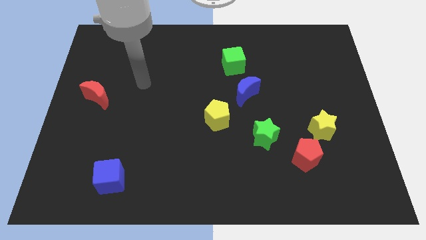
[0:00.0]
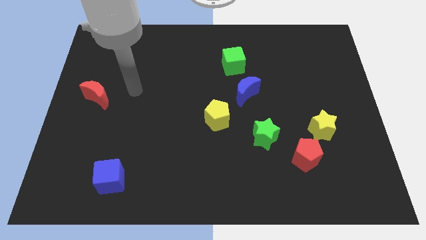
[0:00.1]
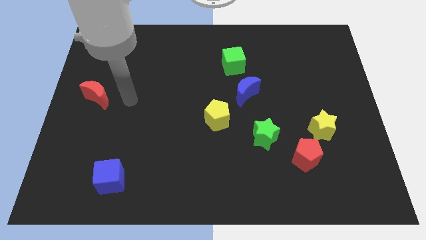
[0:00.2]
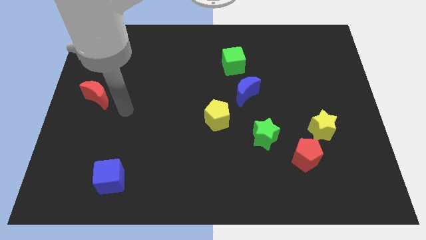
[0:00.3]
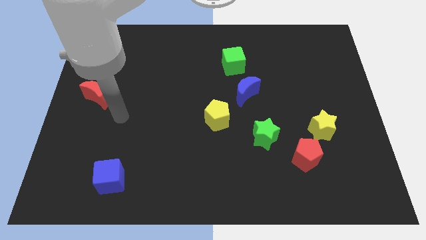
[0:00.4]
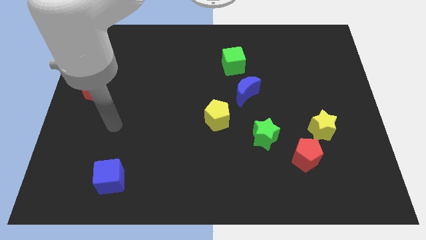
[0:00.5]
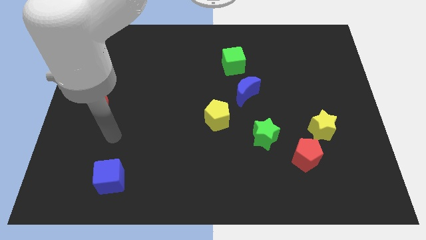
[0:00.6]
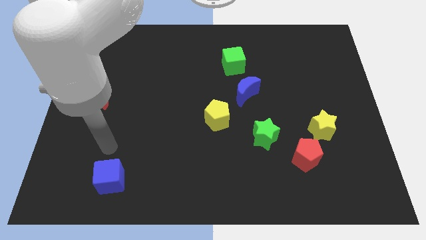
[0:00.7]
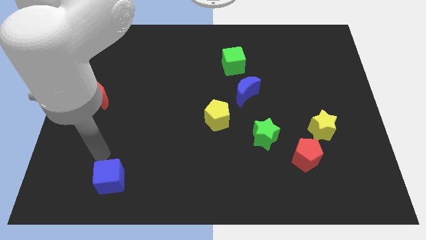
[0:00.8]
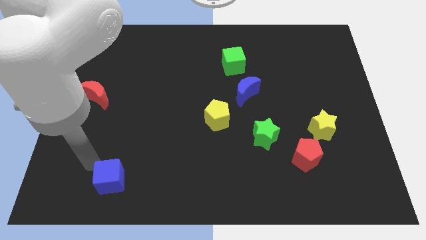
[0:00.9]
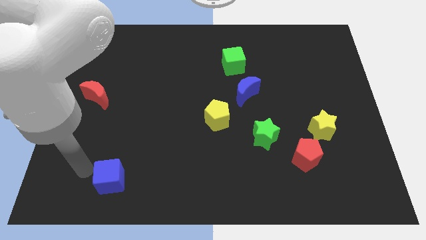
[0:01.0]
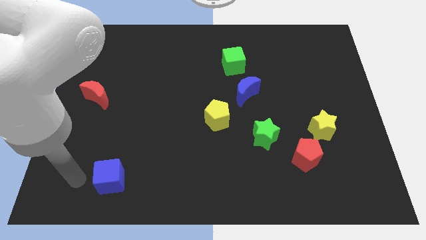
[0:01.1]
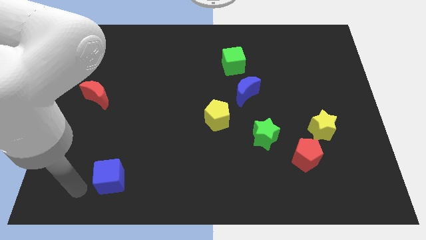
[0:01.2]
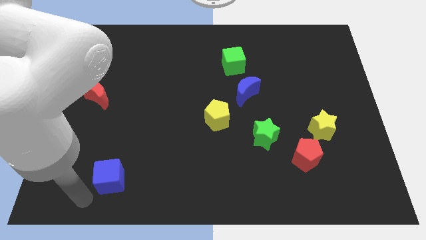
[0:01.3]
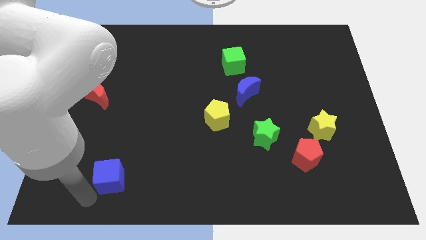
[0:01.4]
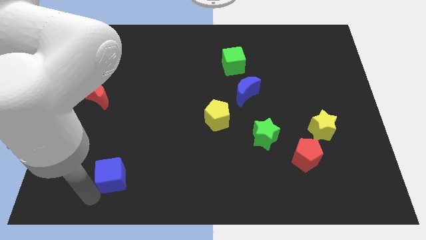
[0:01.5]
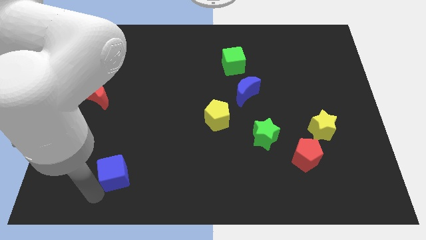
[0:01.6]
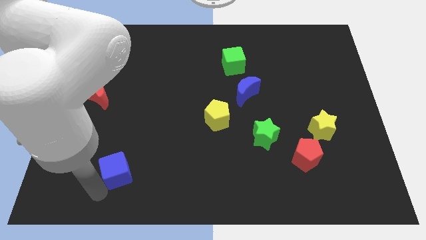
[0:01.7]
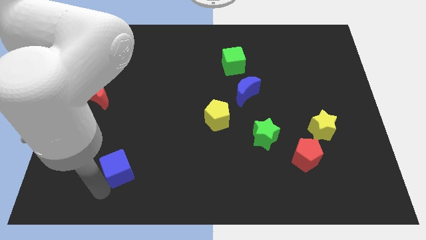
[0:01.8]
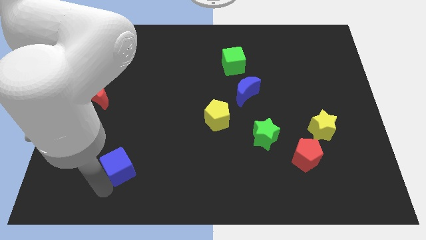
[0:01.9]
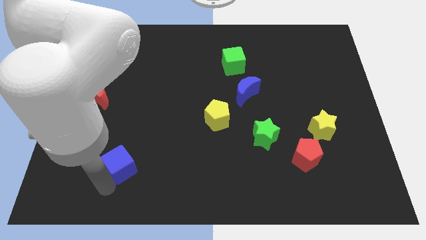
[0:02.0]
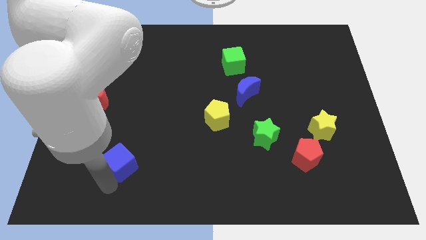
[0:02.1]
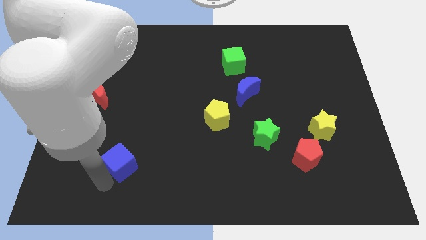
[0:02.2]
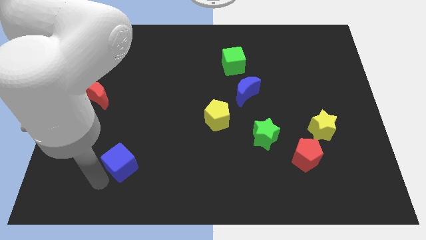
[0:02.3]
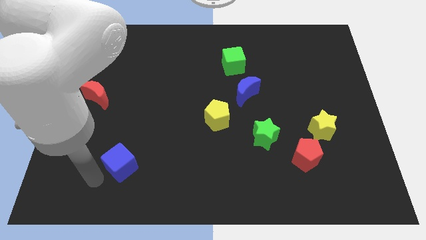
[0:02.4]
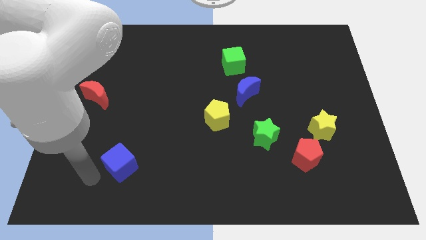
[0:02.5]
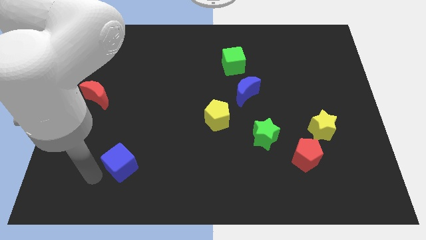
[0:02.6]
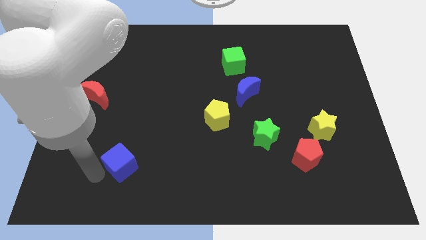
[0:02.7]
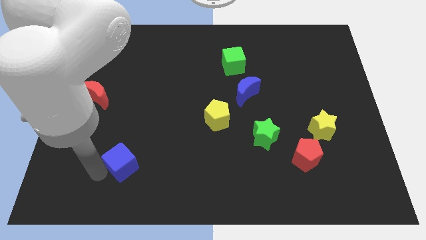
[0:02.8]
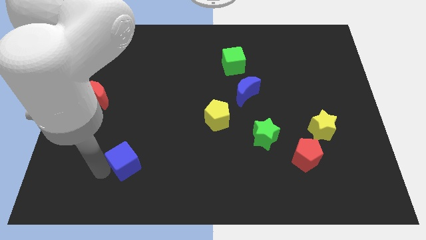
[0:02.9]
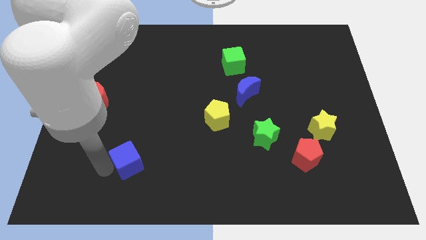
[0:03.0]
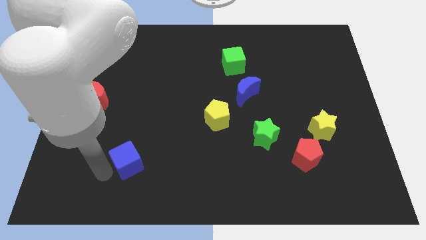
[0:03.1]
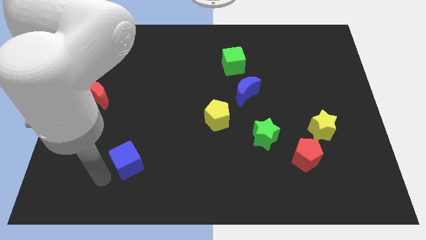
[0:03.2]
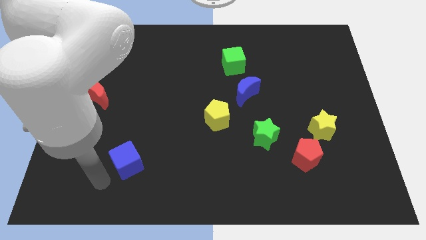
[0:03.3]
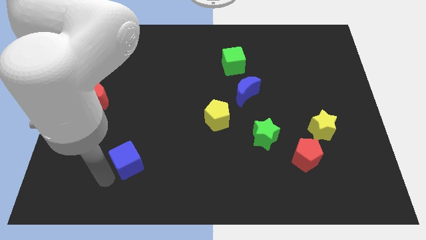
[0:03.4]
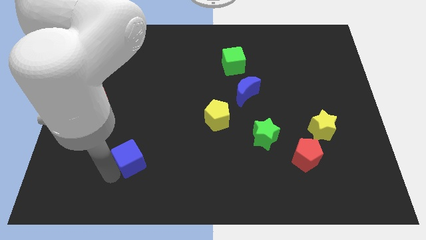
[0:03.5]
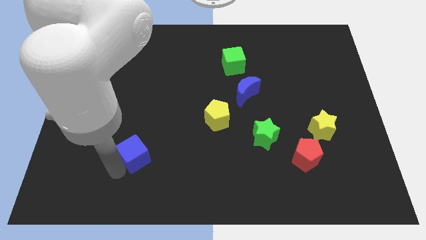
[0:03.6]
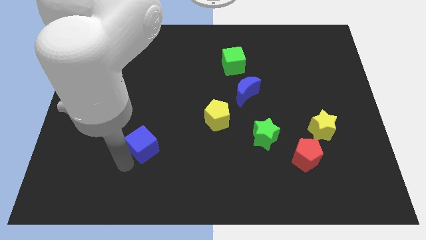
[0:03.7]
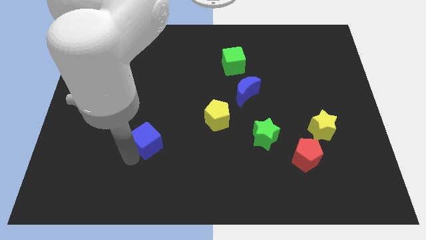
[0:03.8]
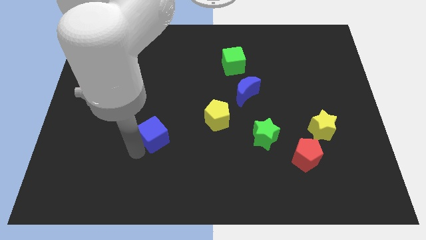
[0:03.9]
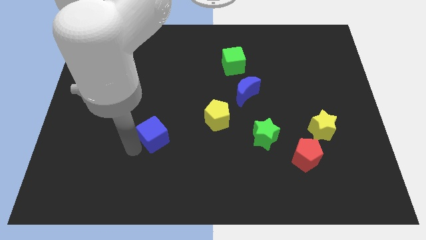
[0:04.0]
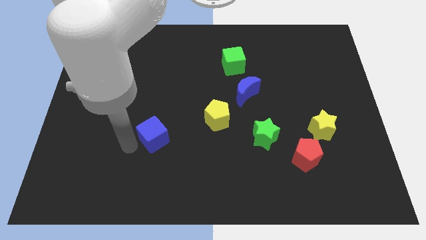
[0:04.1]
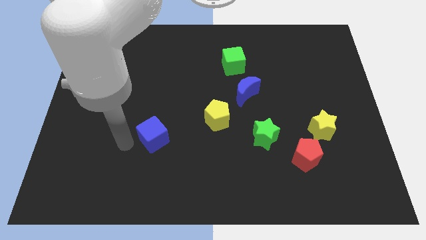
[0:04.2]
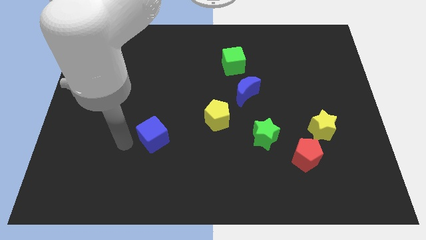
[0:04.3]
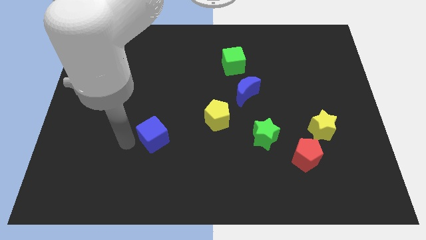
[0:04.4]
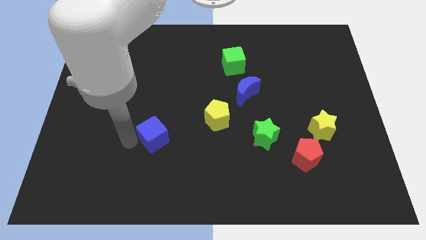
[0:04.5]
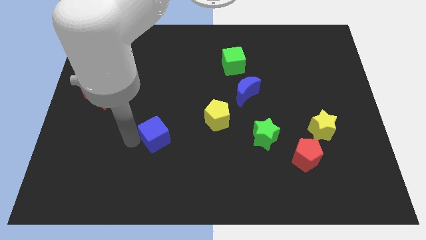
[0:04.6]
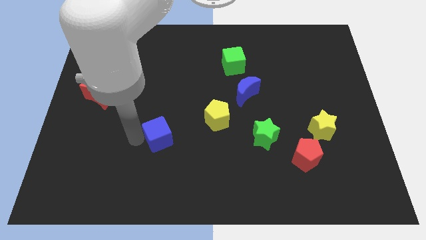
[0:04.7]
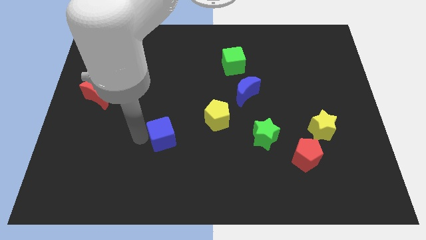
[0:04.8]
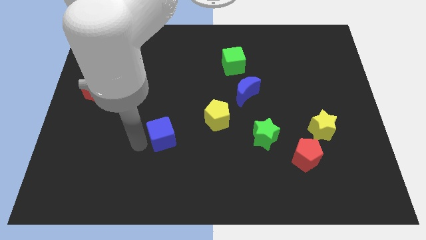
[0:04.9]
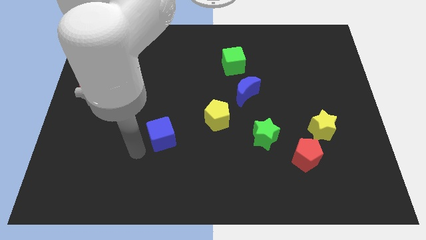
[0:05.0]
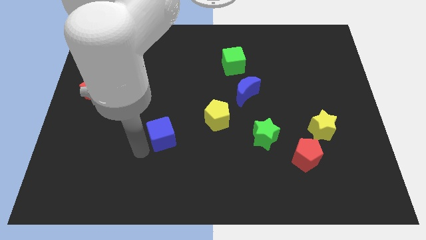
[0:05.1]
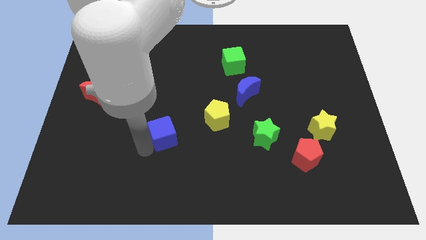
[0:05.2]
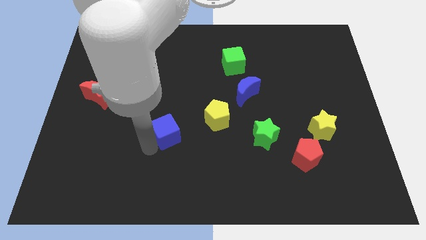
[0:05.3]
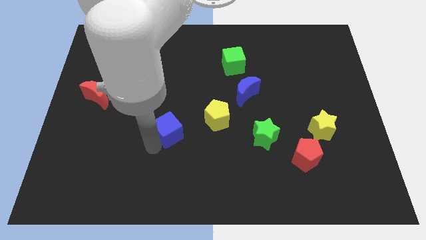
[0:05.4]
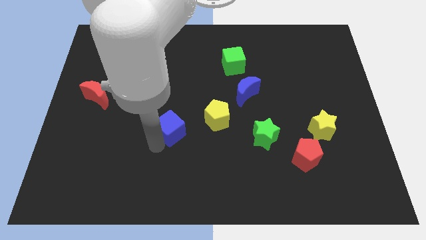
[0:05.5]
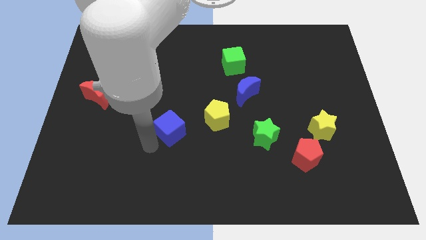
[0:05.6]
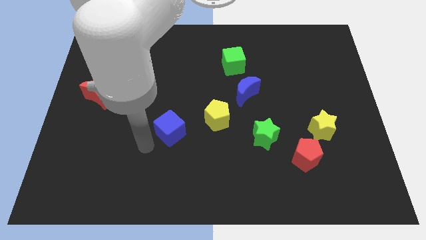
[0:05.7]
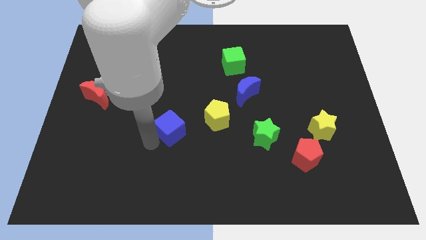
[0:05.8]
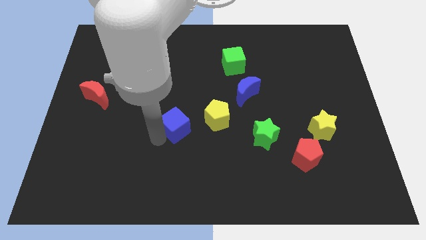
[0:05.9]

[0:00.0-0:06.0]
move the blue cube to the middle

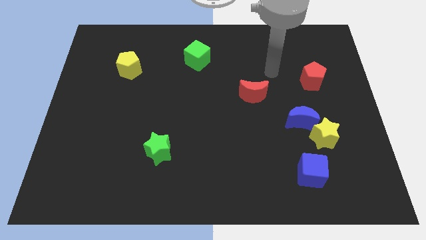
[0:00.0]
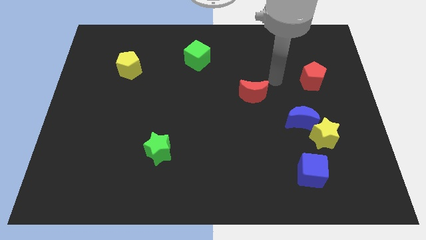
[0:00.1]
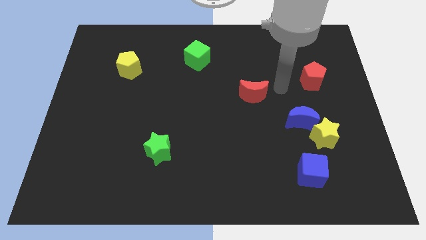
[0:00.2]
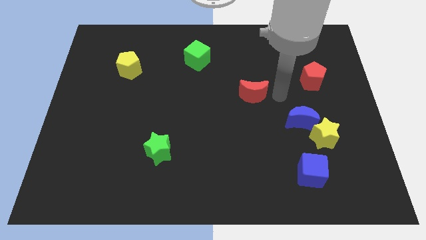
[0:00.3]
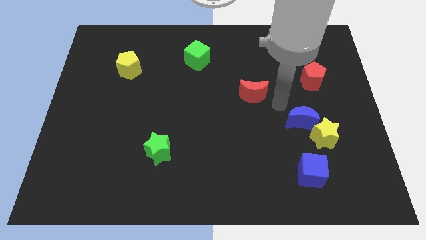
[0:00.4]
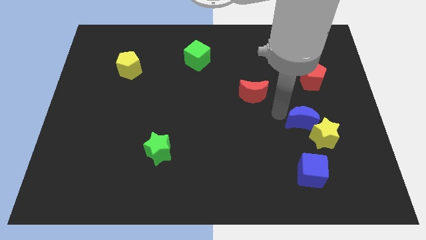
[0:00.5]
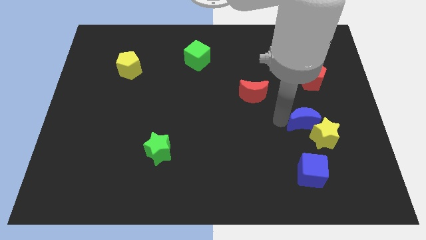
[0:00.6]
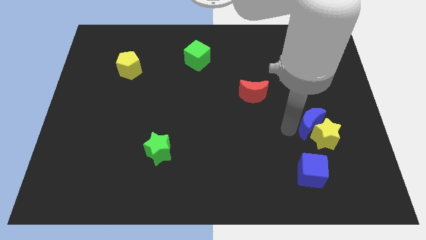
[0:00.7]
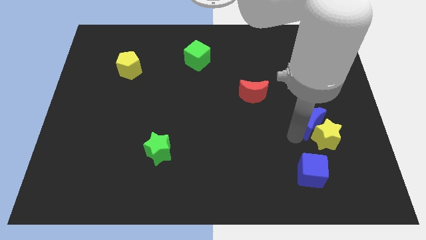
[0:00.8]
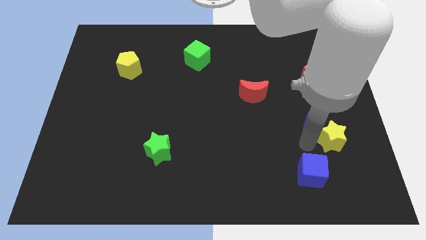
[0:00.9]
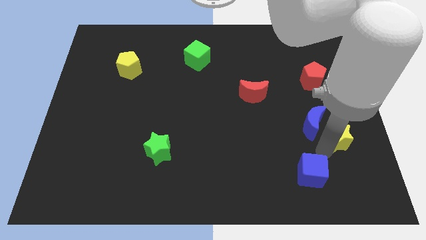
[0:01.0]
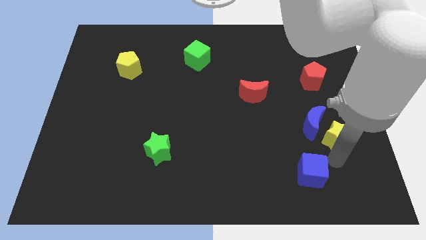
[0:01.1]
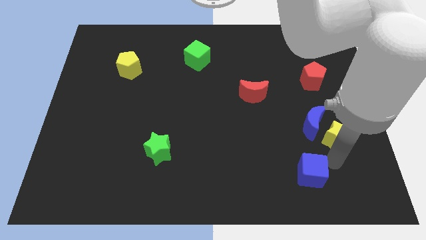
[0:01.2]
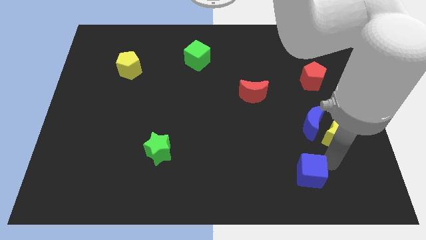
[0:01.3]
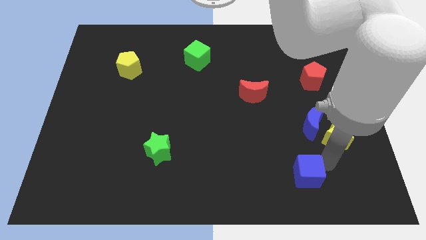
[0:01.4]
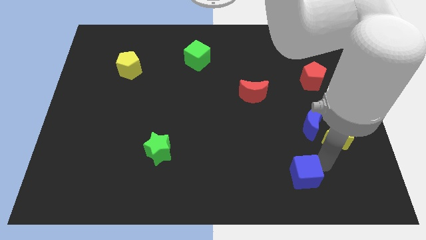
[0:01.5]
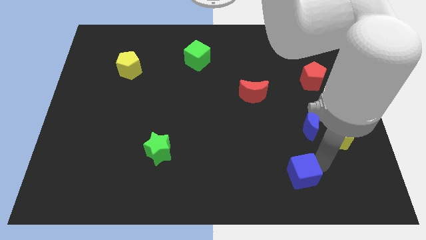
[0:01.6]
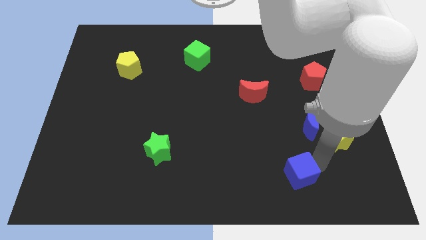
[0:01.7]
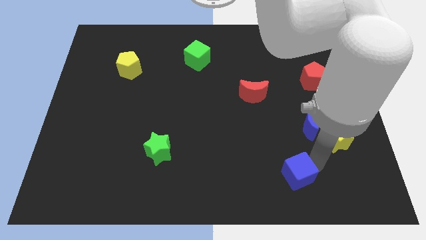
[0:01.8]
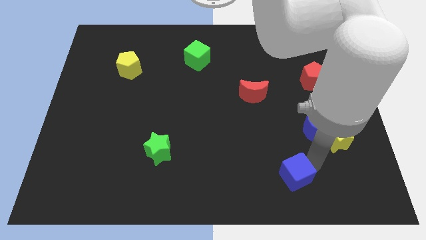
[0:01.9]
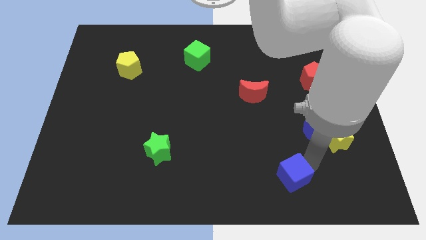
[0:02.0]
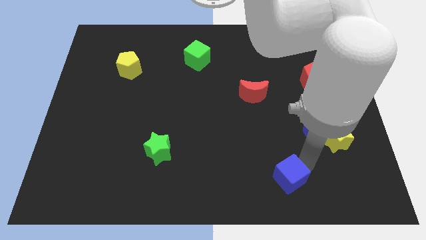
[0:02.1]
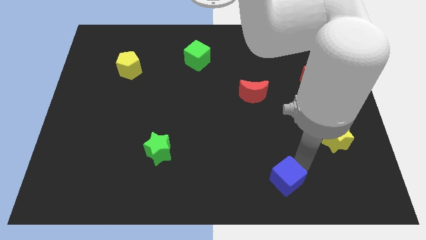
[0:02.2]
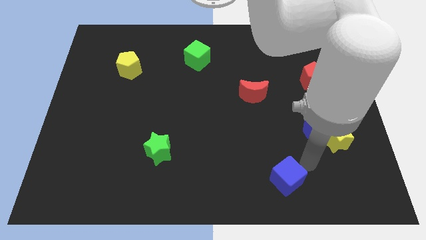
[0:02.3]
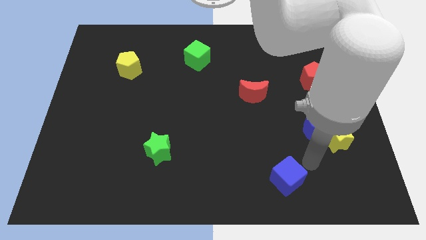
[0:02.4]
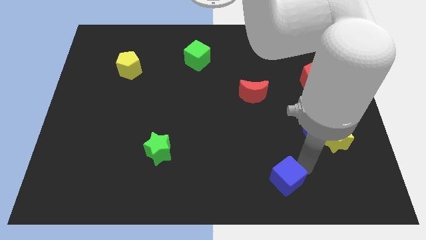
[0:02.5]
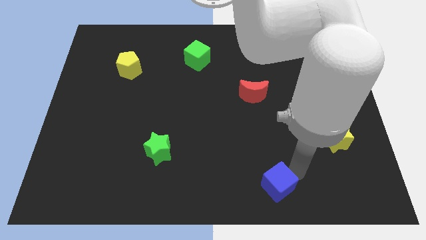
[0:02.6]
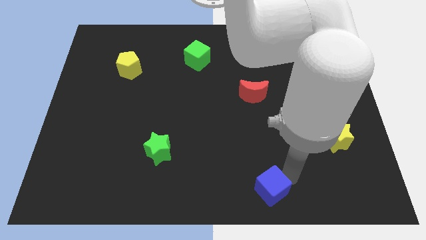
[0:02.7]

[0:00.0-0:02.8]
push the blue cube to the bottom side
